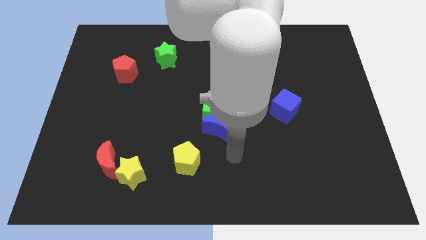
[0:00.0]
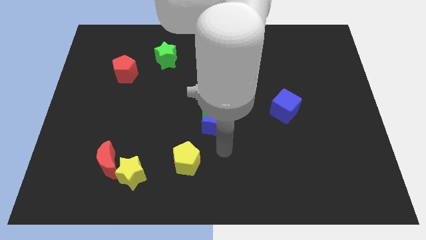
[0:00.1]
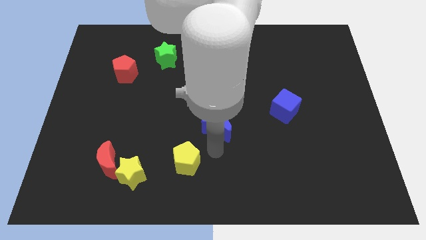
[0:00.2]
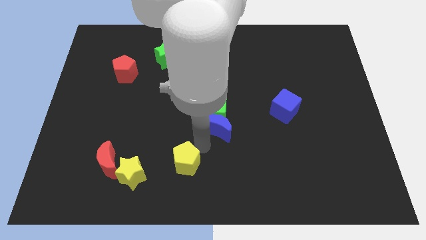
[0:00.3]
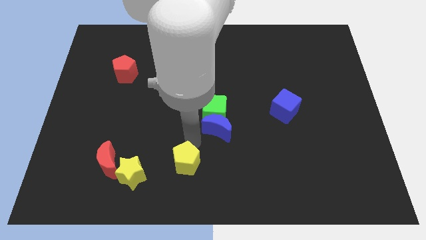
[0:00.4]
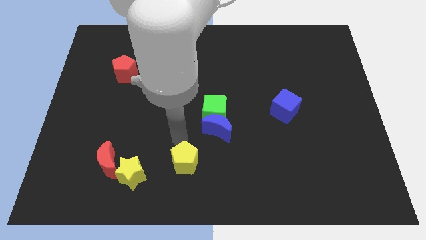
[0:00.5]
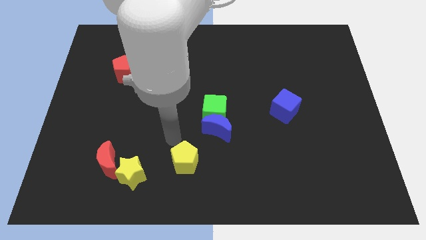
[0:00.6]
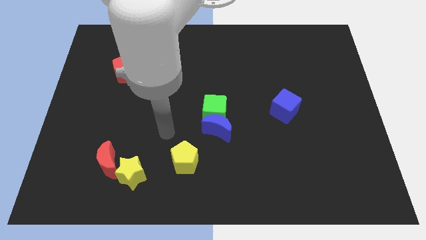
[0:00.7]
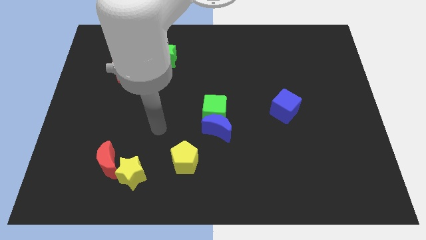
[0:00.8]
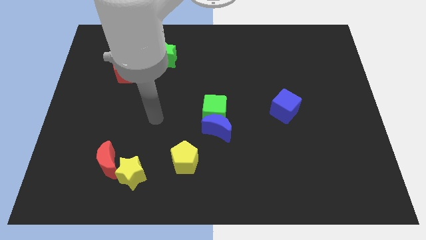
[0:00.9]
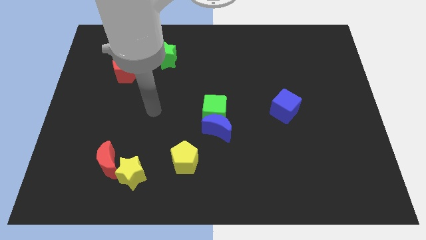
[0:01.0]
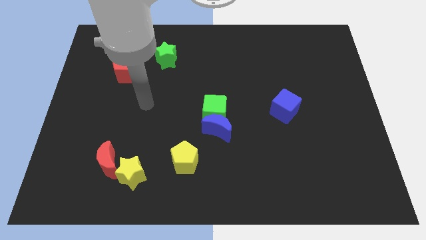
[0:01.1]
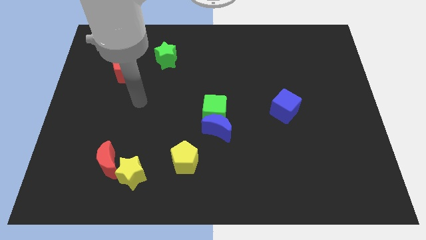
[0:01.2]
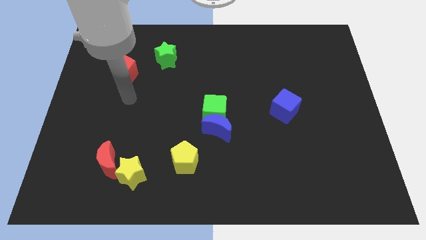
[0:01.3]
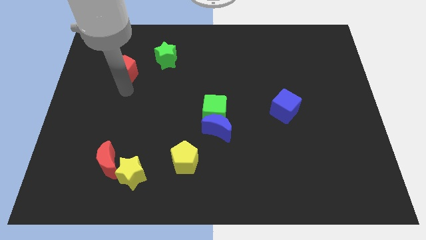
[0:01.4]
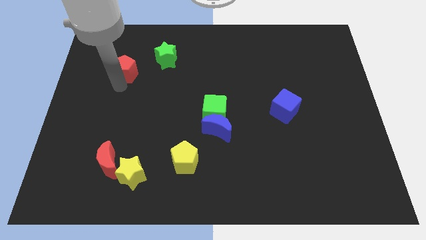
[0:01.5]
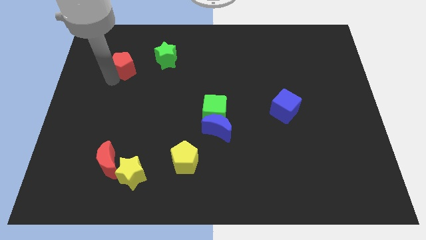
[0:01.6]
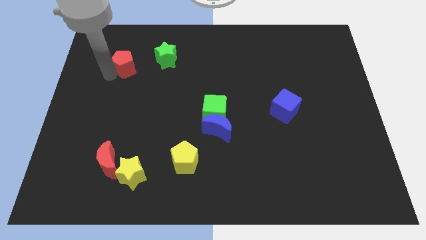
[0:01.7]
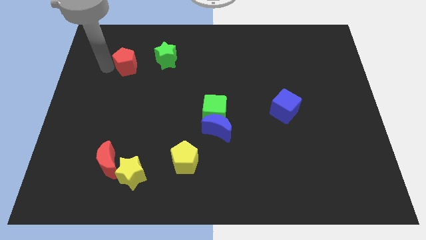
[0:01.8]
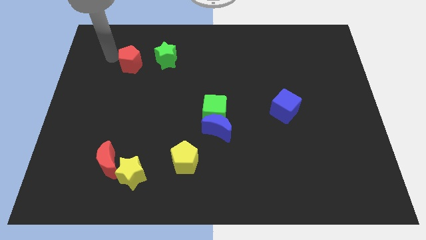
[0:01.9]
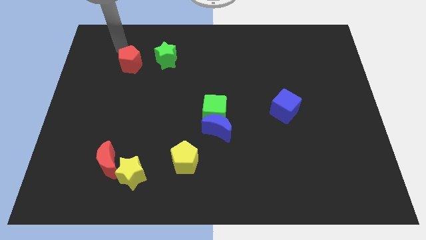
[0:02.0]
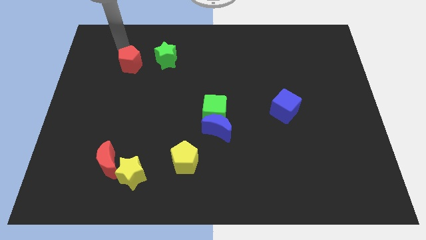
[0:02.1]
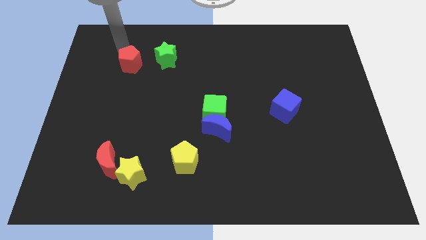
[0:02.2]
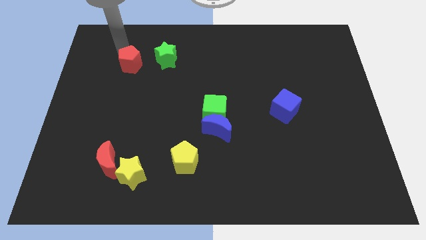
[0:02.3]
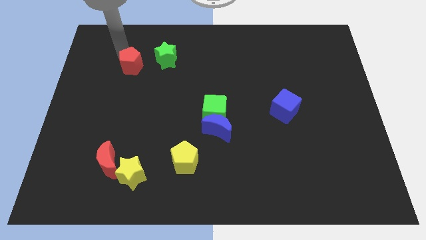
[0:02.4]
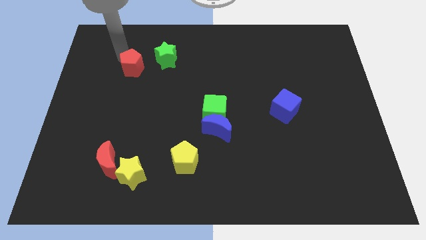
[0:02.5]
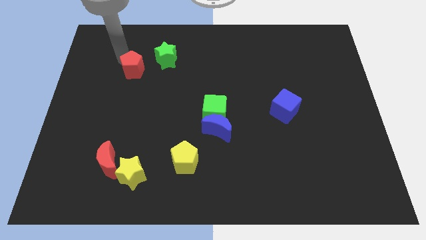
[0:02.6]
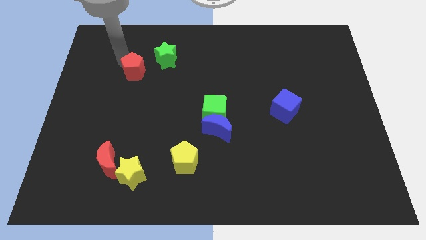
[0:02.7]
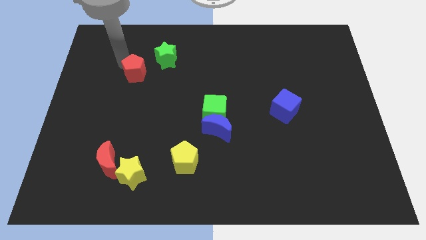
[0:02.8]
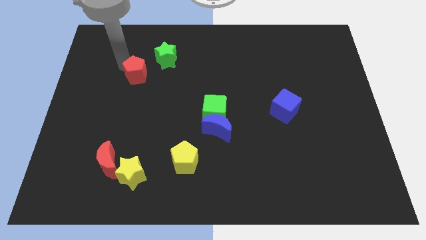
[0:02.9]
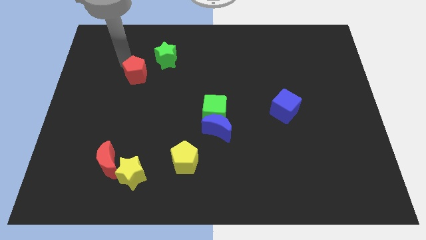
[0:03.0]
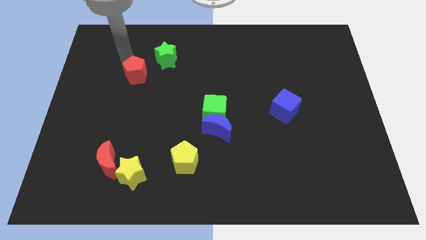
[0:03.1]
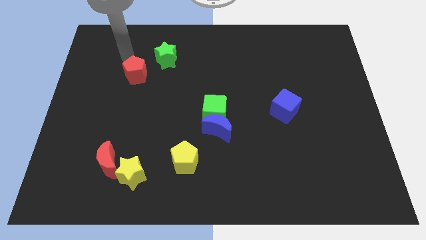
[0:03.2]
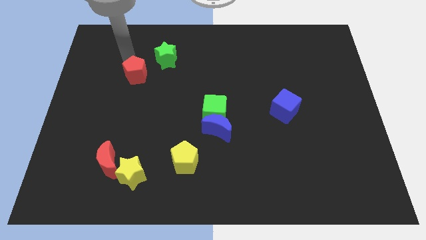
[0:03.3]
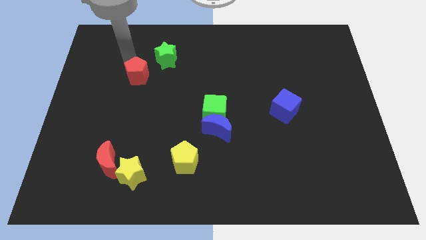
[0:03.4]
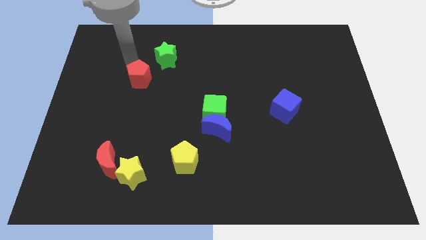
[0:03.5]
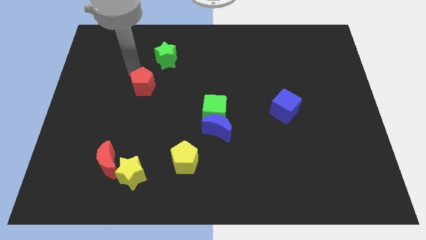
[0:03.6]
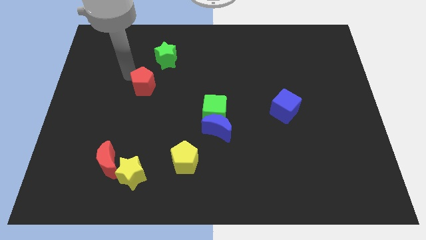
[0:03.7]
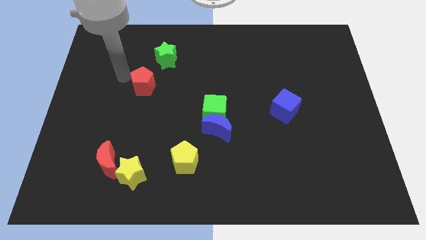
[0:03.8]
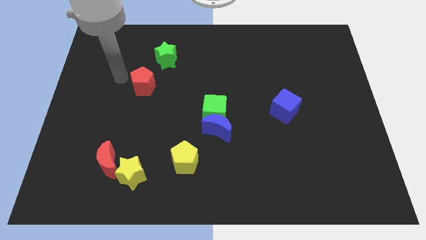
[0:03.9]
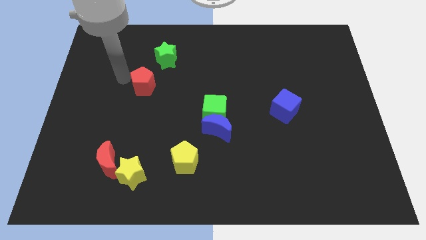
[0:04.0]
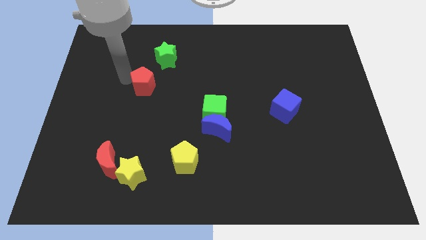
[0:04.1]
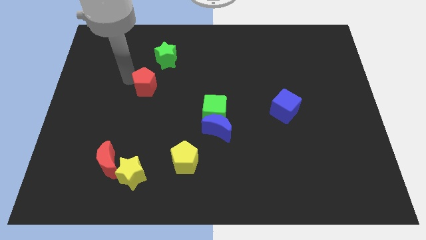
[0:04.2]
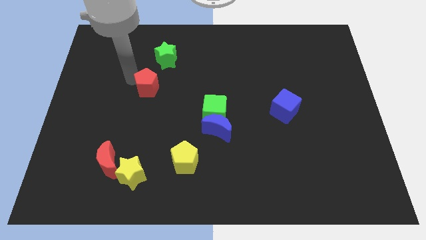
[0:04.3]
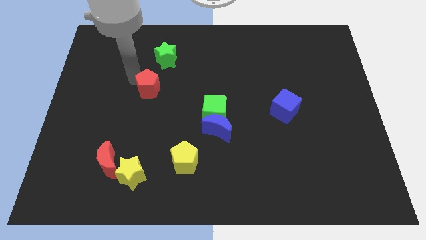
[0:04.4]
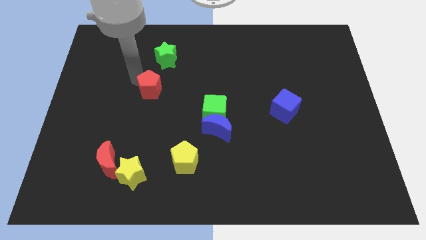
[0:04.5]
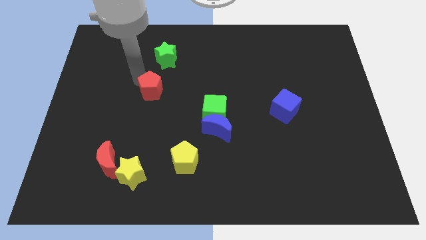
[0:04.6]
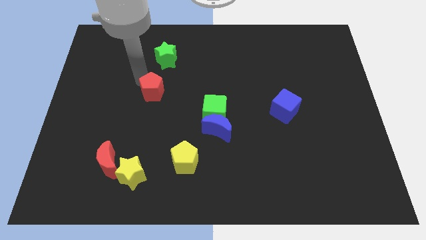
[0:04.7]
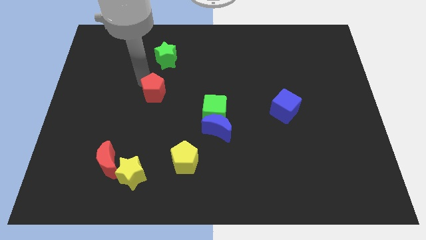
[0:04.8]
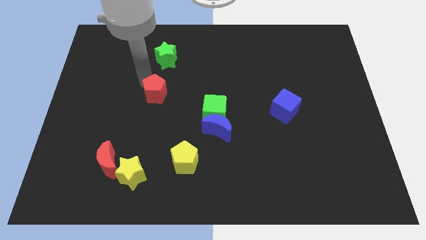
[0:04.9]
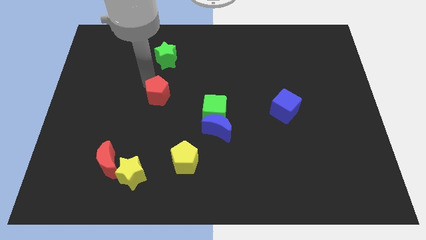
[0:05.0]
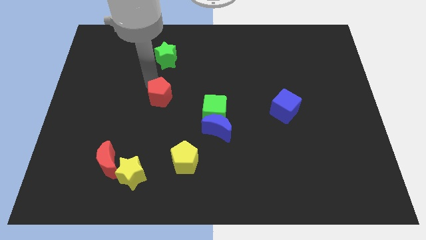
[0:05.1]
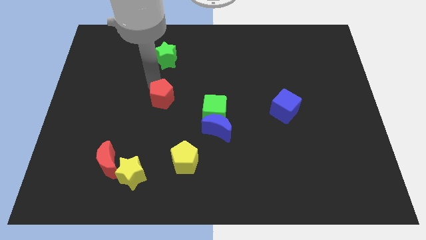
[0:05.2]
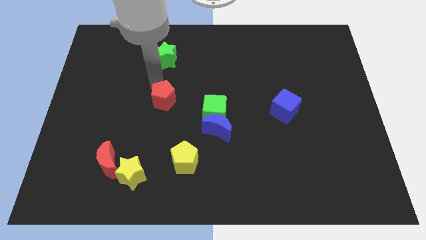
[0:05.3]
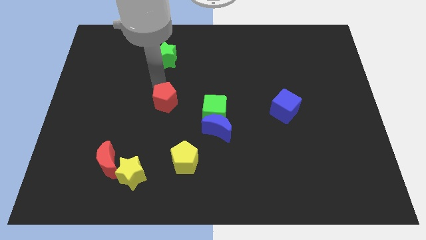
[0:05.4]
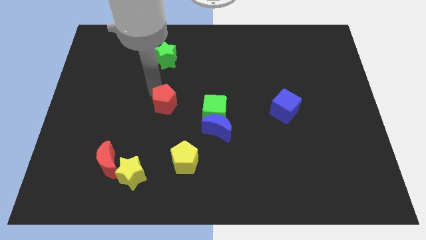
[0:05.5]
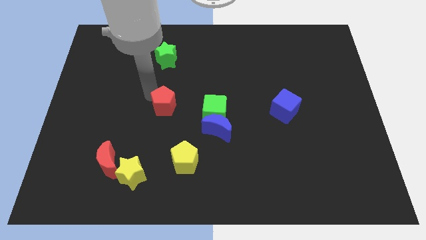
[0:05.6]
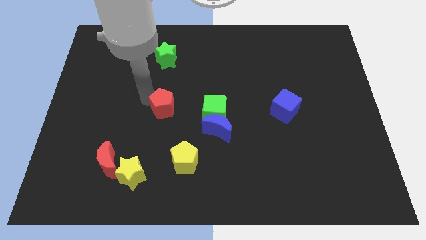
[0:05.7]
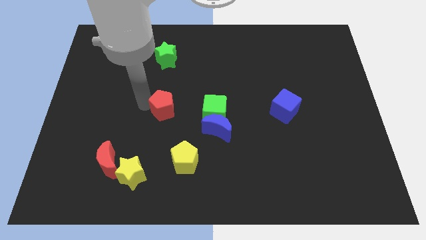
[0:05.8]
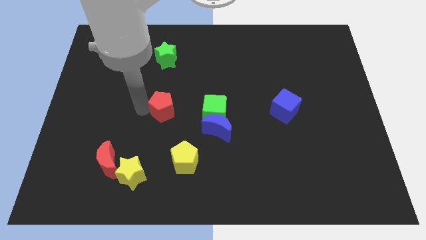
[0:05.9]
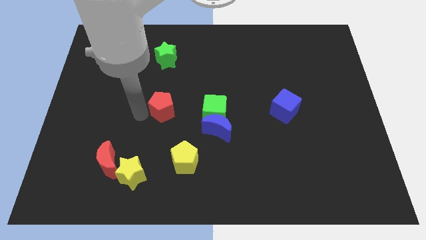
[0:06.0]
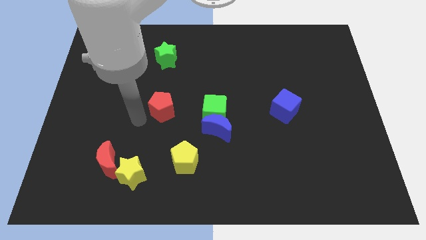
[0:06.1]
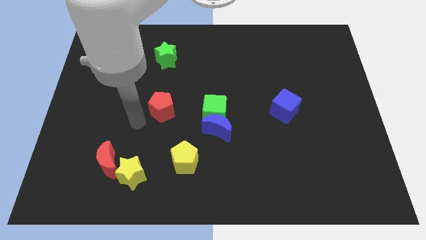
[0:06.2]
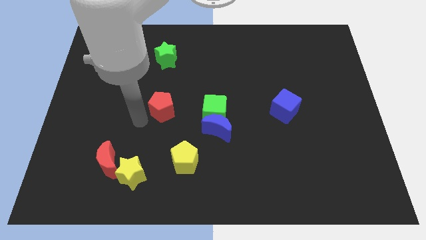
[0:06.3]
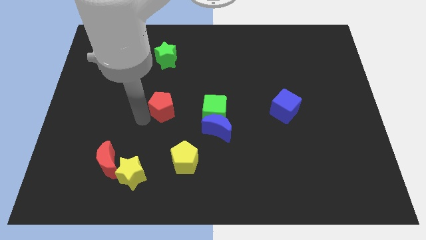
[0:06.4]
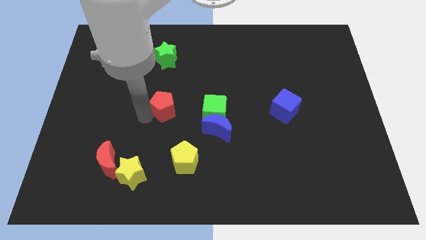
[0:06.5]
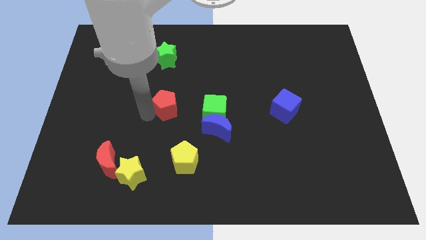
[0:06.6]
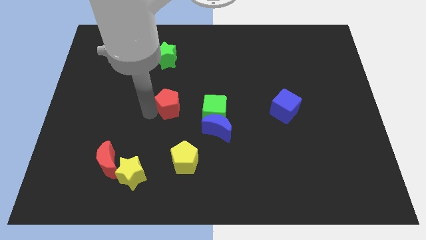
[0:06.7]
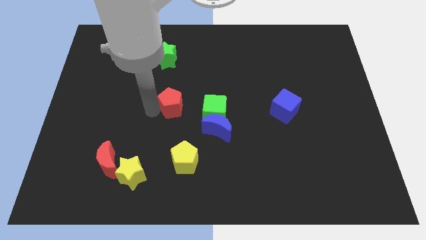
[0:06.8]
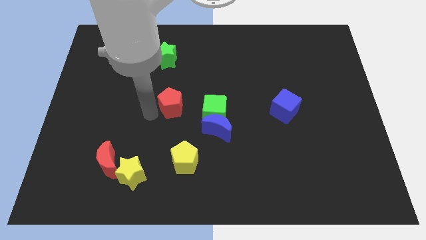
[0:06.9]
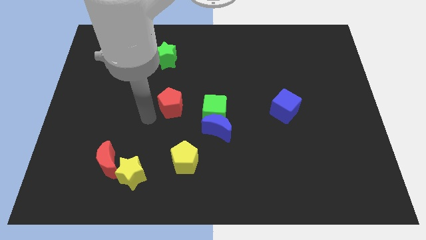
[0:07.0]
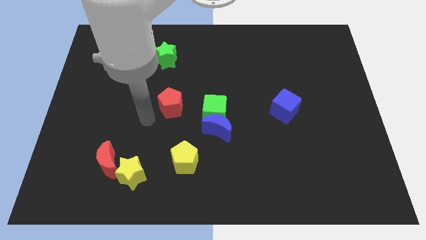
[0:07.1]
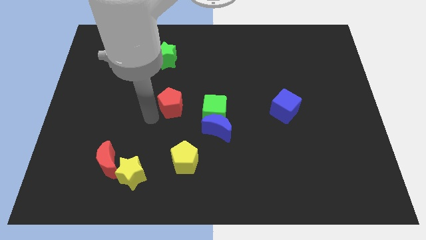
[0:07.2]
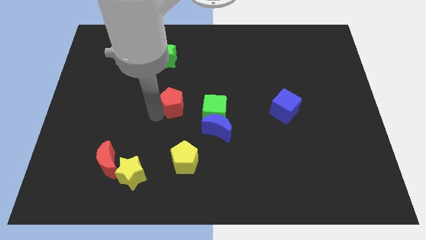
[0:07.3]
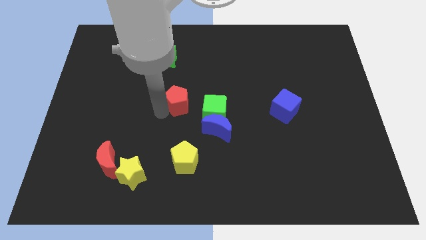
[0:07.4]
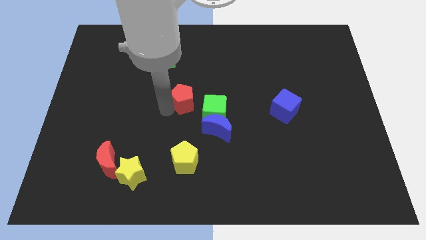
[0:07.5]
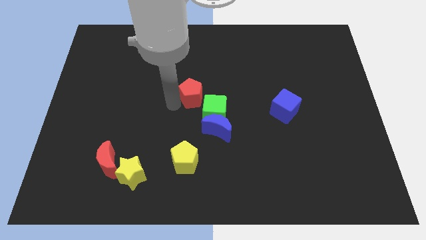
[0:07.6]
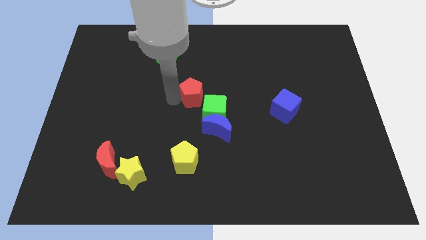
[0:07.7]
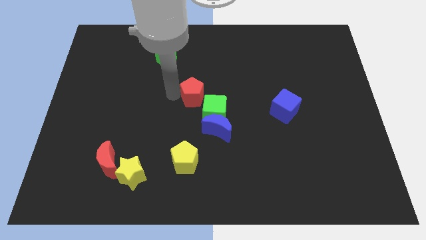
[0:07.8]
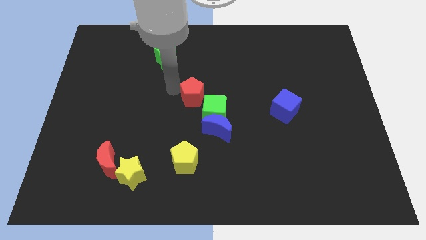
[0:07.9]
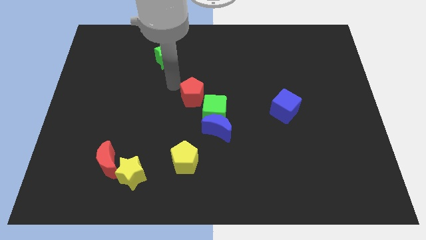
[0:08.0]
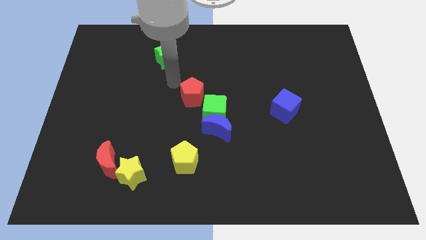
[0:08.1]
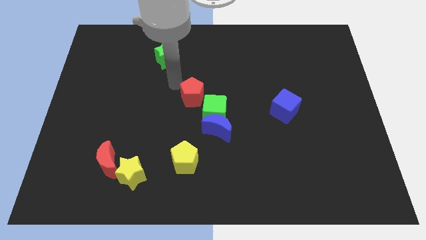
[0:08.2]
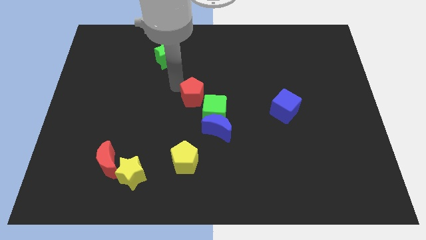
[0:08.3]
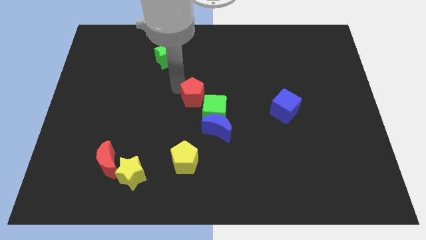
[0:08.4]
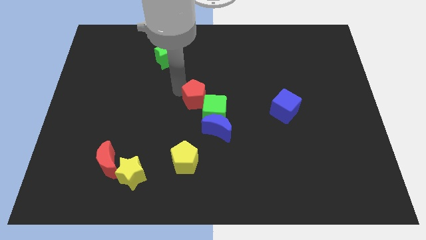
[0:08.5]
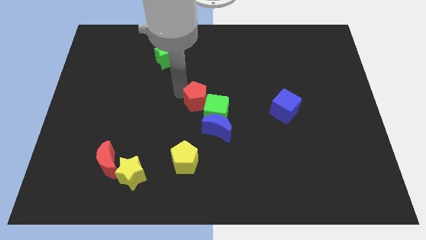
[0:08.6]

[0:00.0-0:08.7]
push the red pentagon towards the green cube
